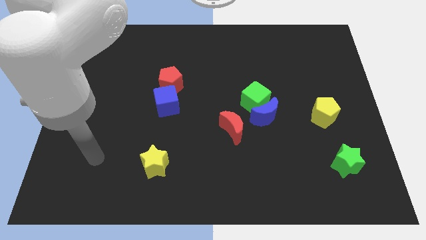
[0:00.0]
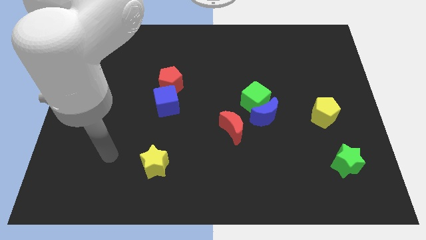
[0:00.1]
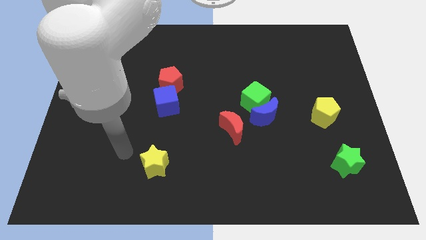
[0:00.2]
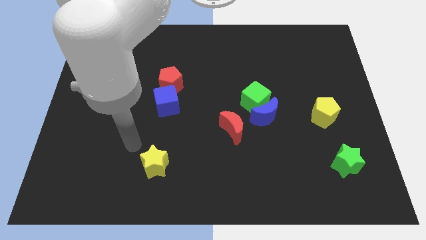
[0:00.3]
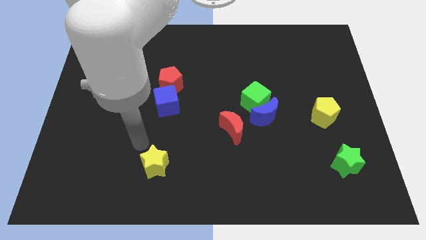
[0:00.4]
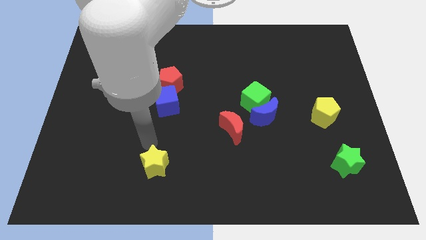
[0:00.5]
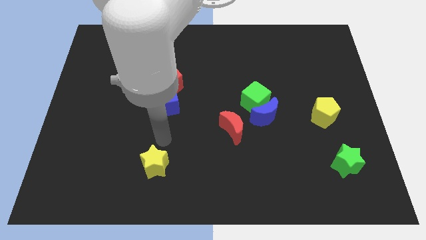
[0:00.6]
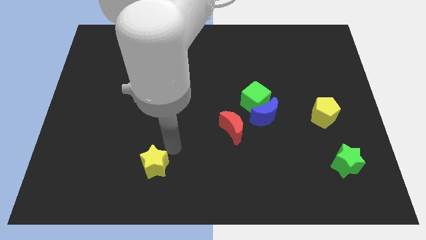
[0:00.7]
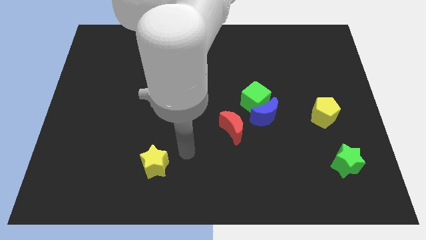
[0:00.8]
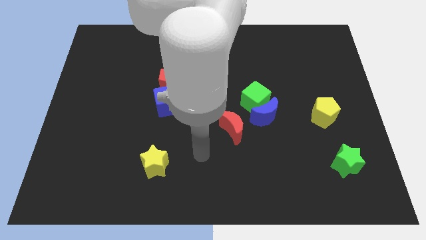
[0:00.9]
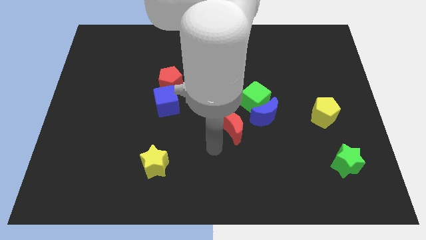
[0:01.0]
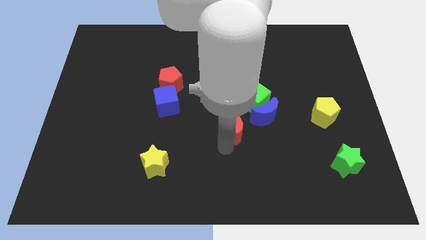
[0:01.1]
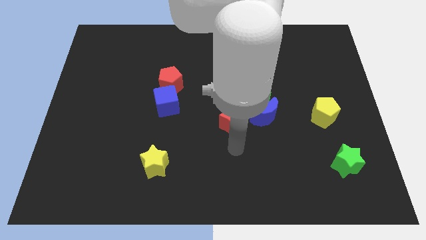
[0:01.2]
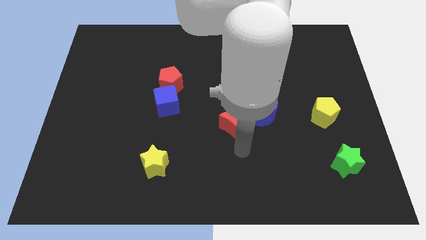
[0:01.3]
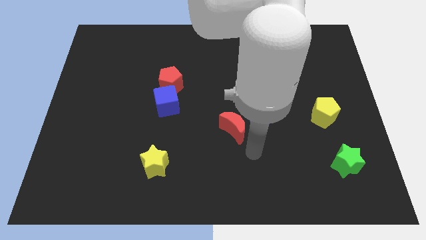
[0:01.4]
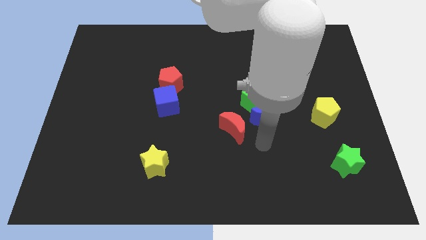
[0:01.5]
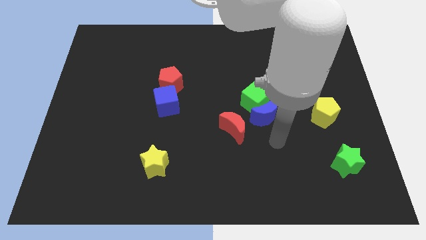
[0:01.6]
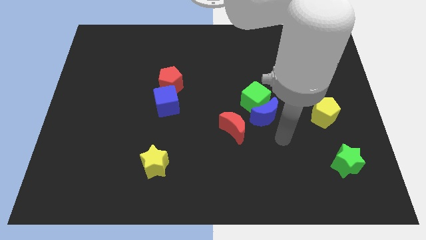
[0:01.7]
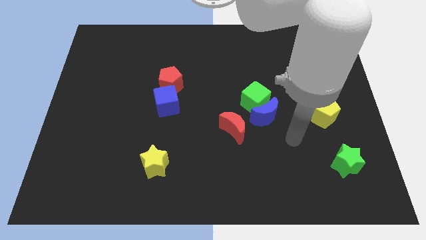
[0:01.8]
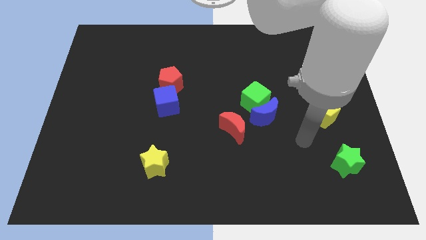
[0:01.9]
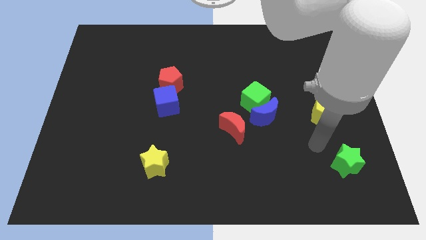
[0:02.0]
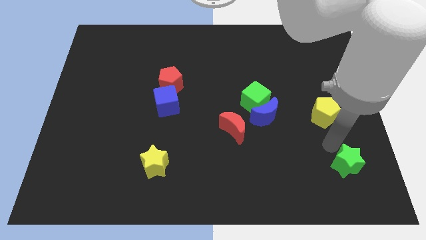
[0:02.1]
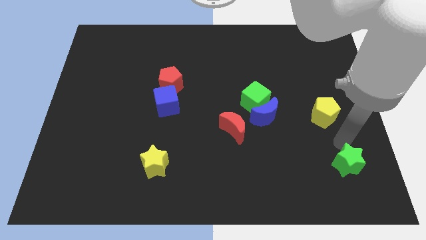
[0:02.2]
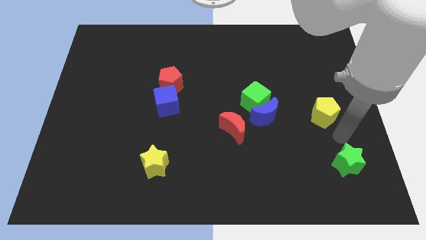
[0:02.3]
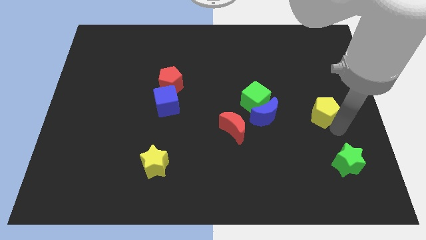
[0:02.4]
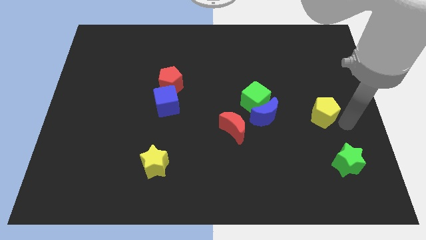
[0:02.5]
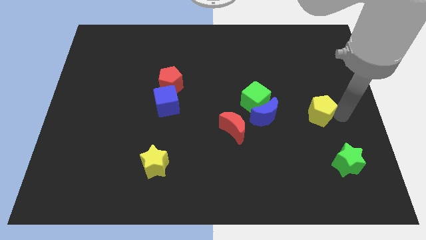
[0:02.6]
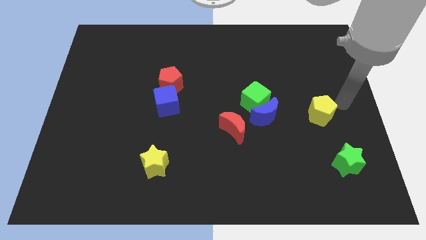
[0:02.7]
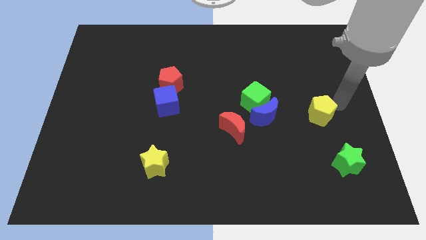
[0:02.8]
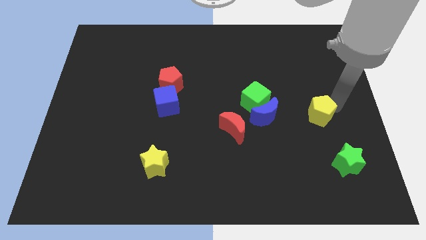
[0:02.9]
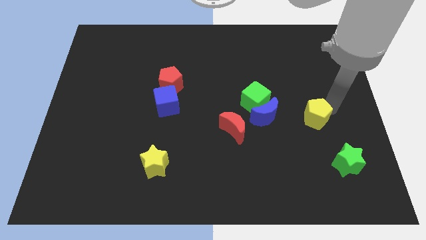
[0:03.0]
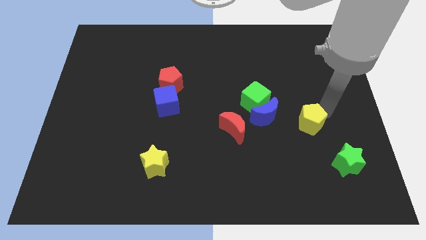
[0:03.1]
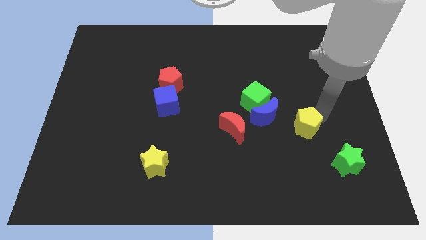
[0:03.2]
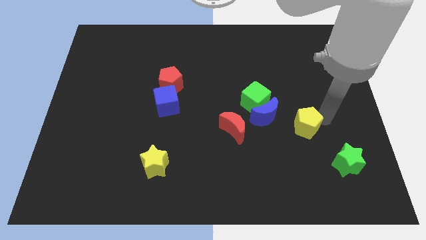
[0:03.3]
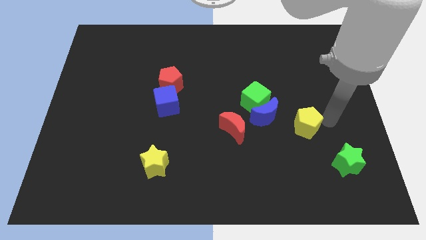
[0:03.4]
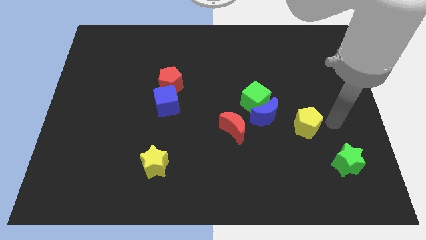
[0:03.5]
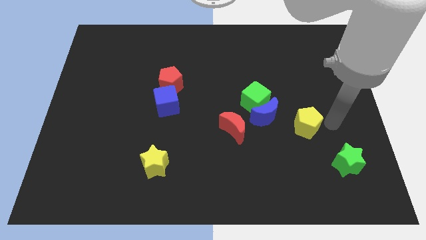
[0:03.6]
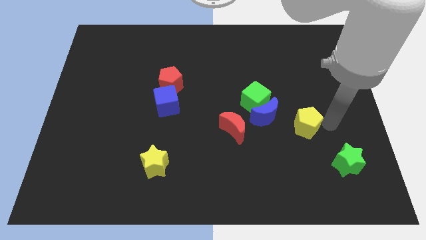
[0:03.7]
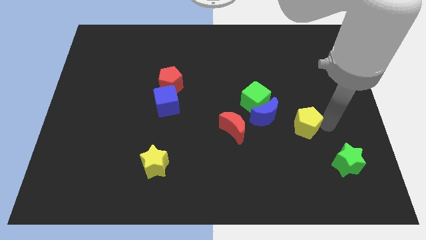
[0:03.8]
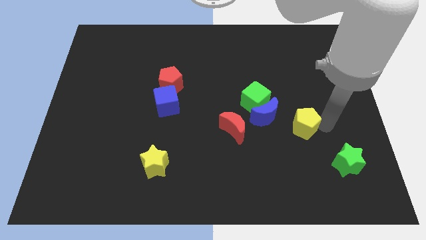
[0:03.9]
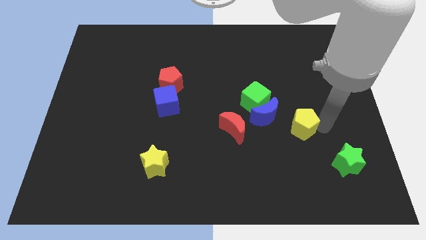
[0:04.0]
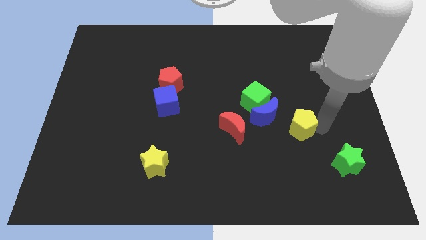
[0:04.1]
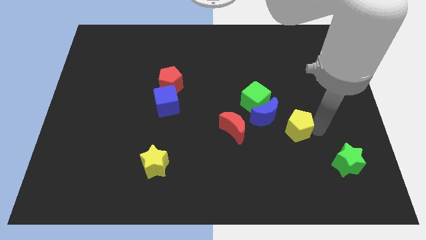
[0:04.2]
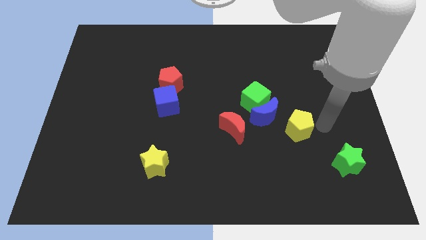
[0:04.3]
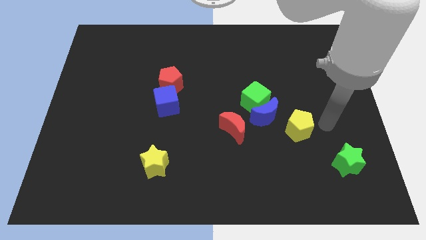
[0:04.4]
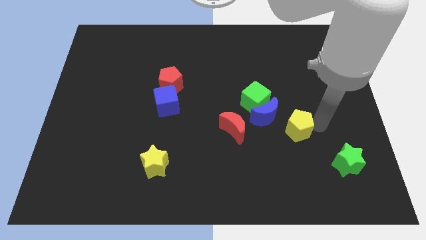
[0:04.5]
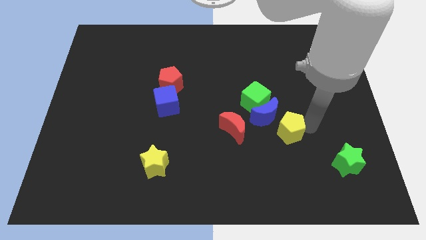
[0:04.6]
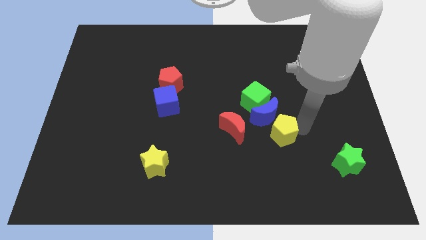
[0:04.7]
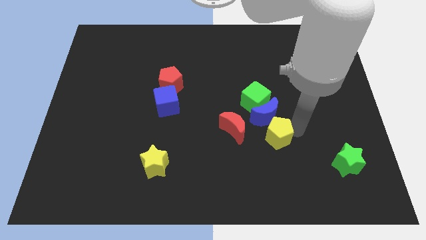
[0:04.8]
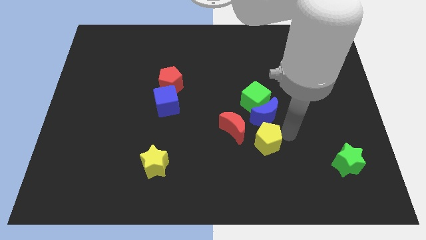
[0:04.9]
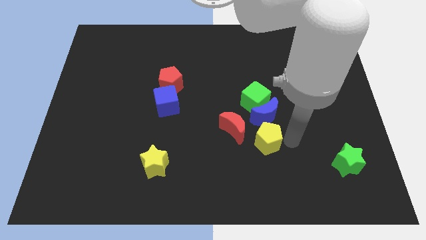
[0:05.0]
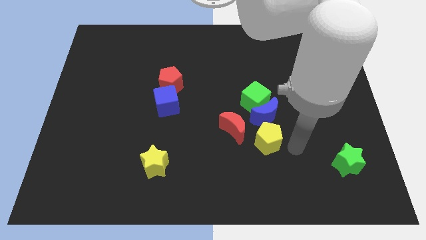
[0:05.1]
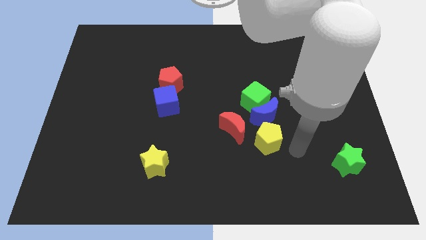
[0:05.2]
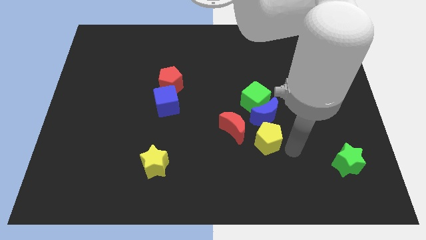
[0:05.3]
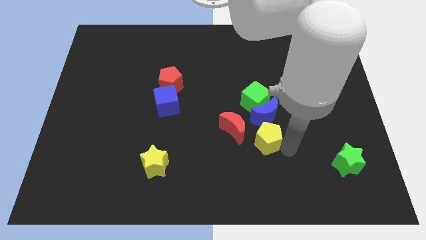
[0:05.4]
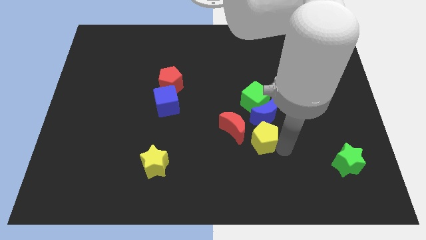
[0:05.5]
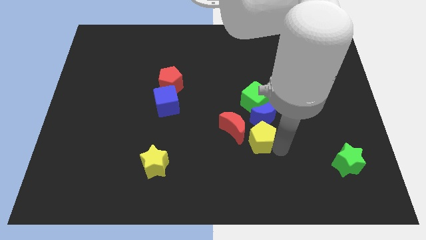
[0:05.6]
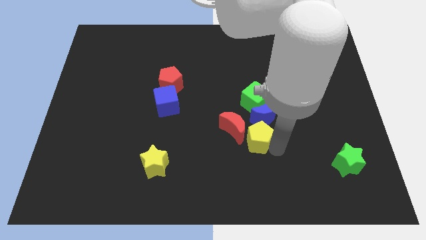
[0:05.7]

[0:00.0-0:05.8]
put the yellow pentagon towards the red moon

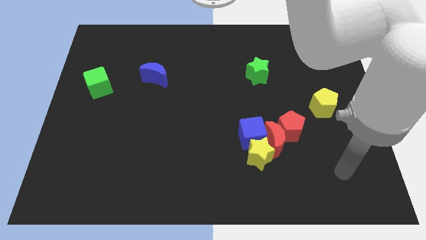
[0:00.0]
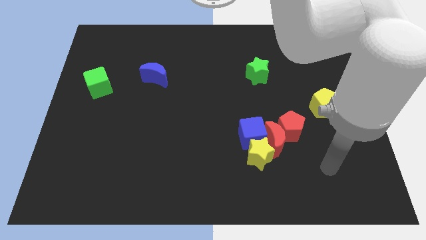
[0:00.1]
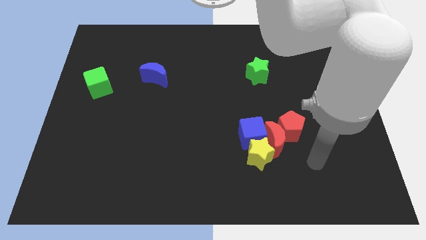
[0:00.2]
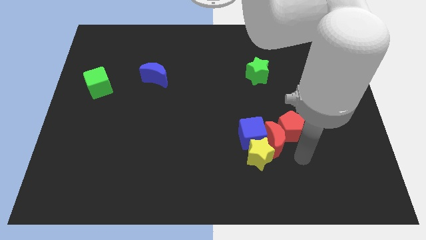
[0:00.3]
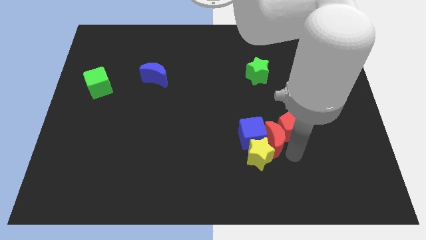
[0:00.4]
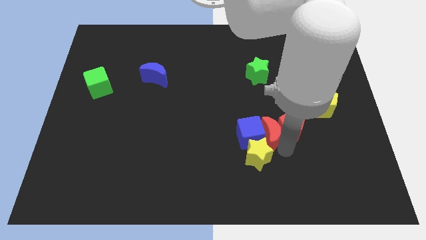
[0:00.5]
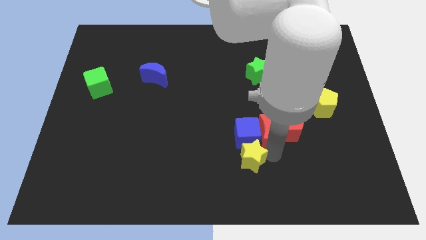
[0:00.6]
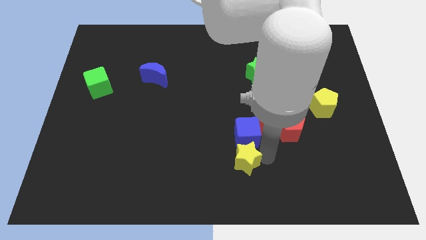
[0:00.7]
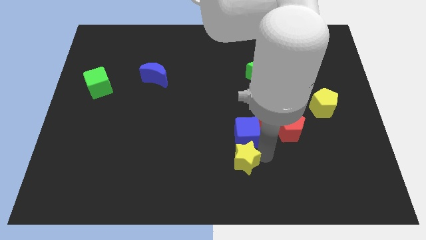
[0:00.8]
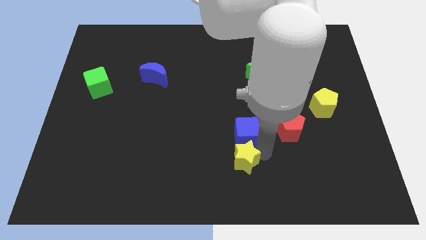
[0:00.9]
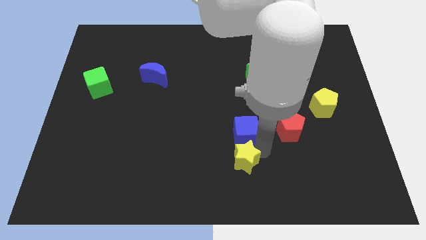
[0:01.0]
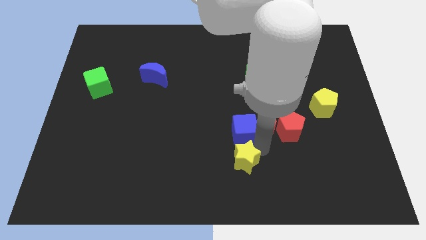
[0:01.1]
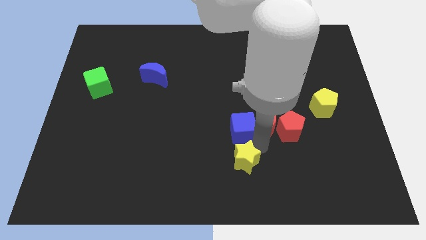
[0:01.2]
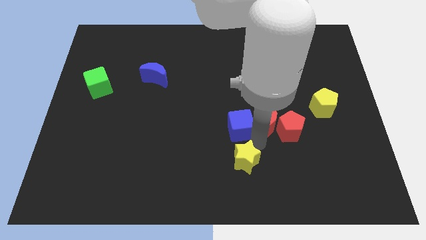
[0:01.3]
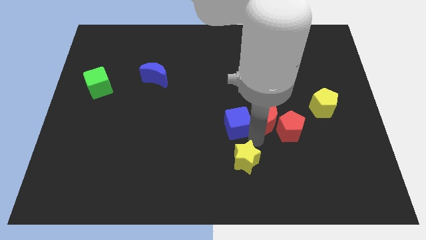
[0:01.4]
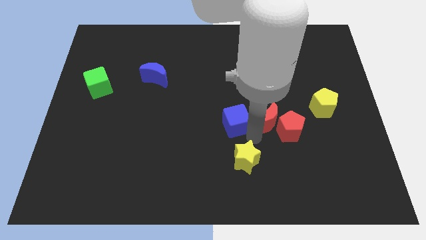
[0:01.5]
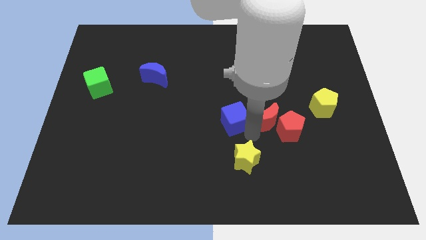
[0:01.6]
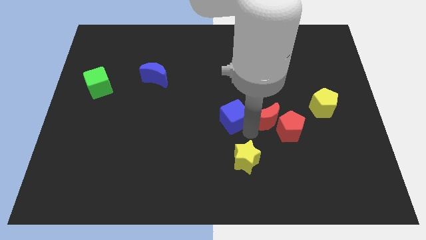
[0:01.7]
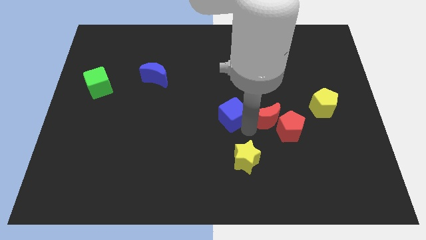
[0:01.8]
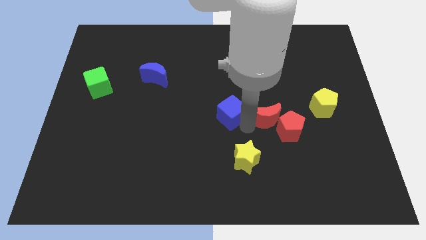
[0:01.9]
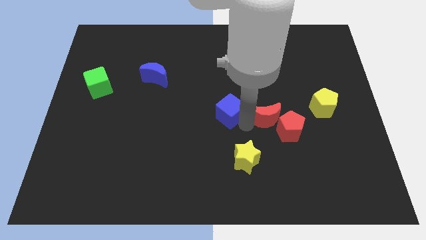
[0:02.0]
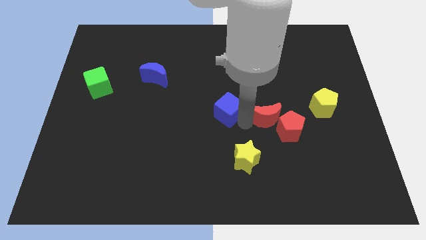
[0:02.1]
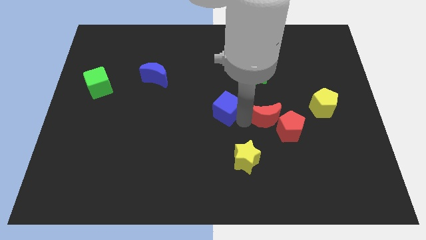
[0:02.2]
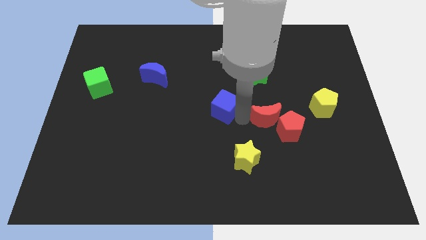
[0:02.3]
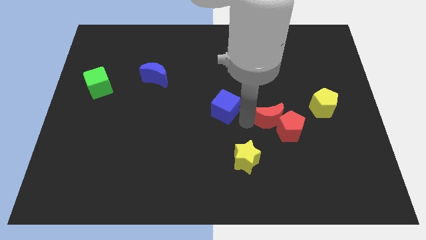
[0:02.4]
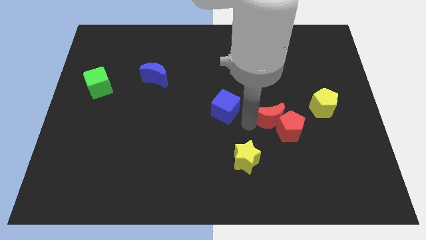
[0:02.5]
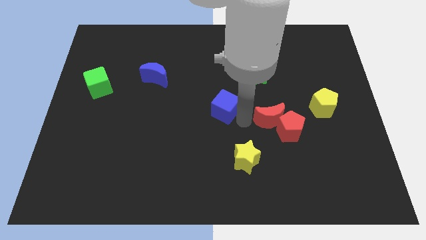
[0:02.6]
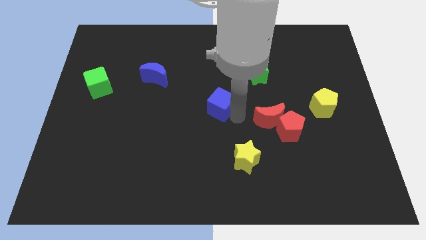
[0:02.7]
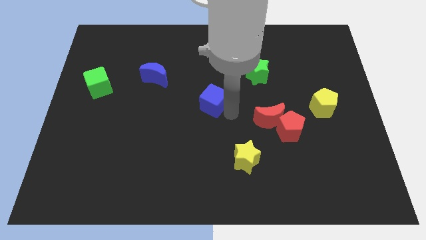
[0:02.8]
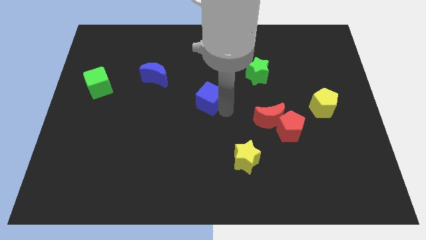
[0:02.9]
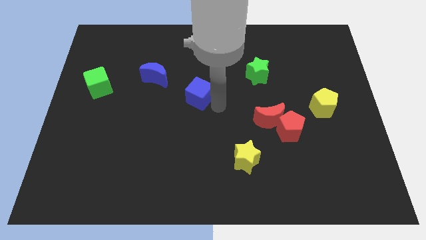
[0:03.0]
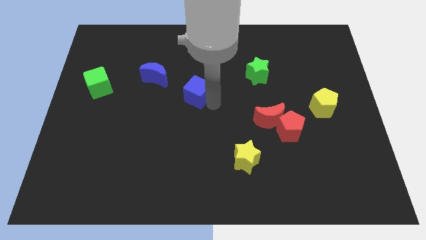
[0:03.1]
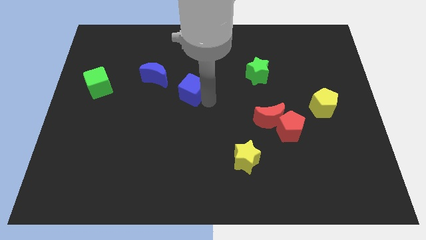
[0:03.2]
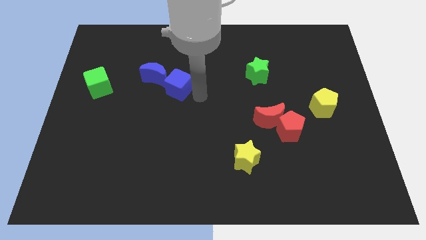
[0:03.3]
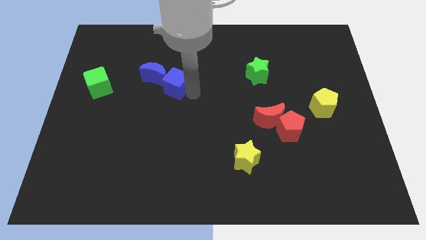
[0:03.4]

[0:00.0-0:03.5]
push the blue cube next to the blue moon
